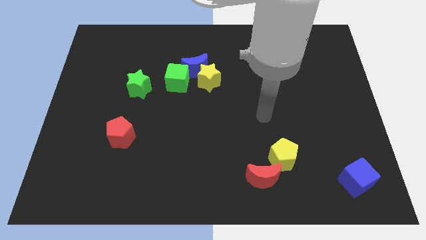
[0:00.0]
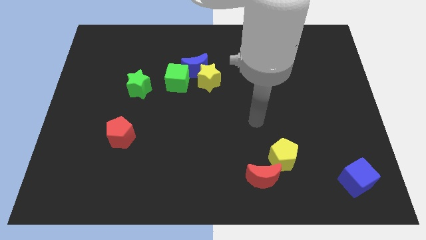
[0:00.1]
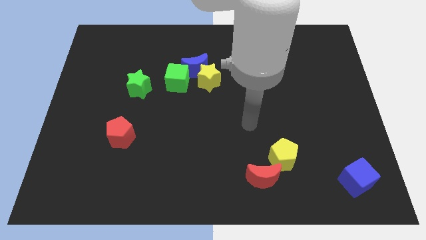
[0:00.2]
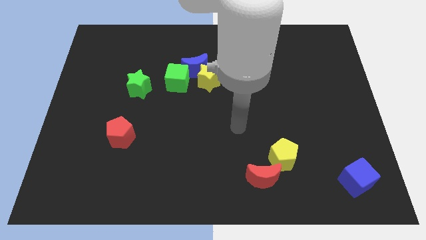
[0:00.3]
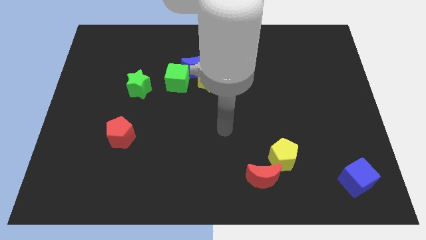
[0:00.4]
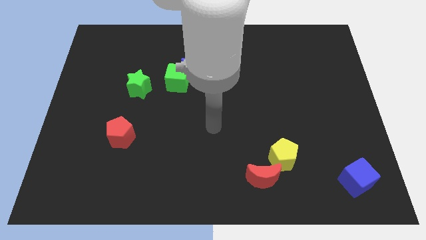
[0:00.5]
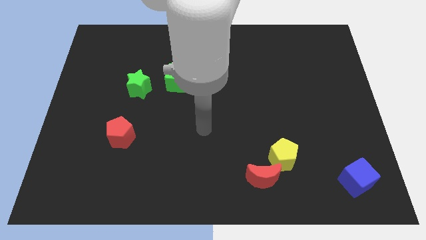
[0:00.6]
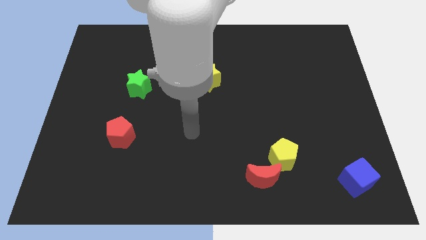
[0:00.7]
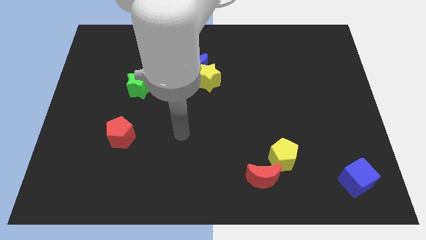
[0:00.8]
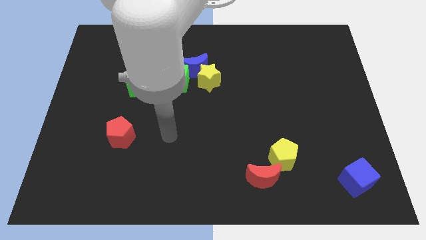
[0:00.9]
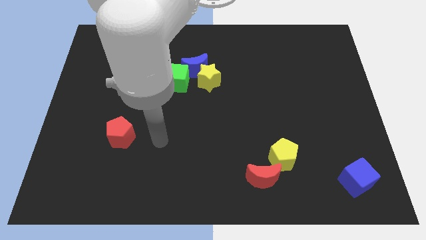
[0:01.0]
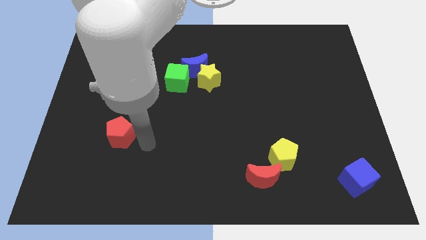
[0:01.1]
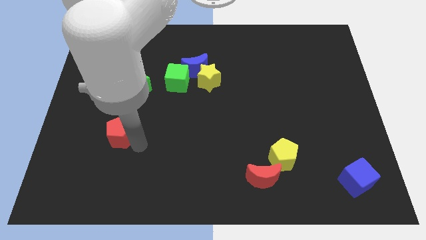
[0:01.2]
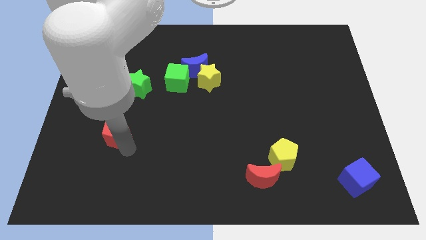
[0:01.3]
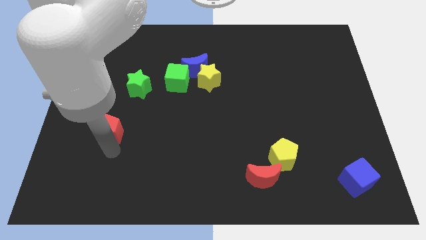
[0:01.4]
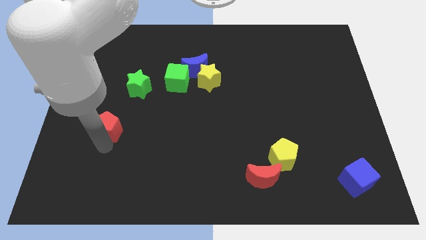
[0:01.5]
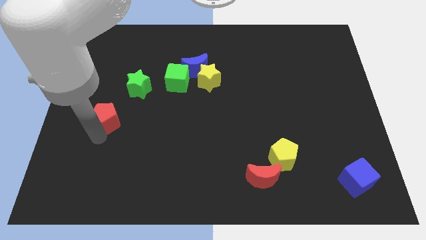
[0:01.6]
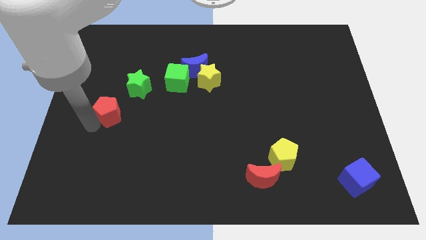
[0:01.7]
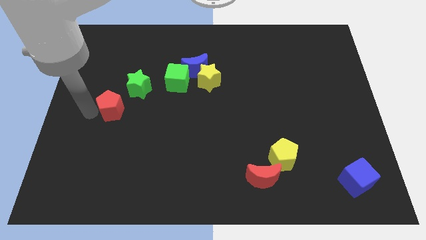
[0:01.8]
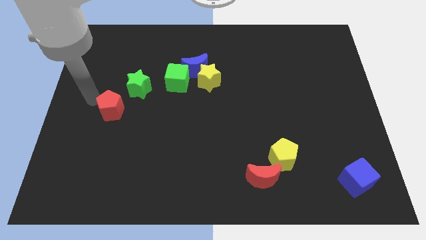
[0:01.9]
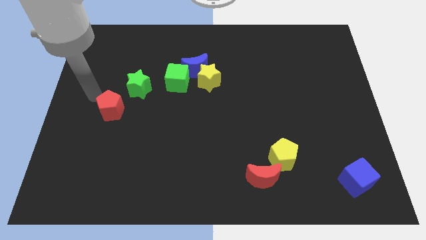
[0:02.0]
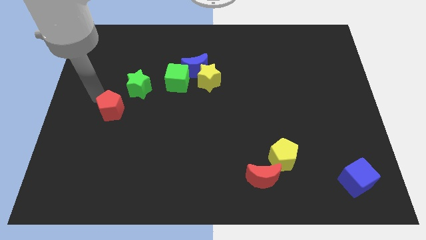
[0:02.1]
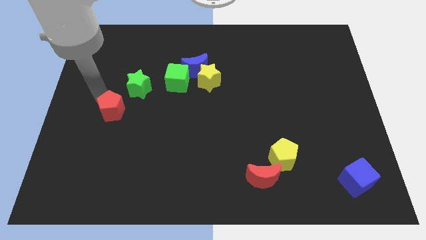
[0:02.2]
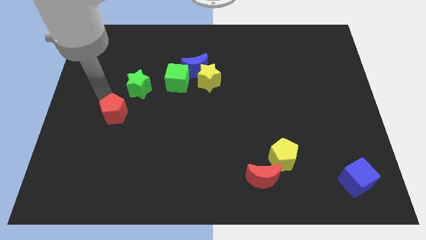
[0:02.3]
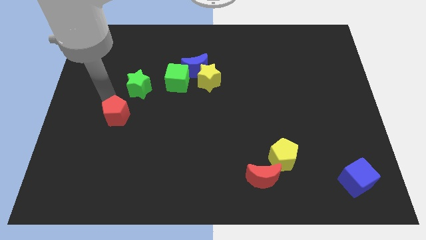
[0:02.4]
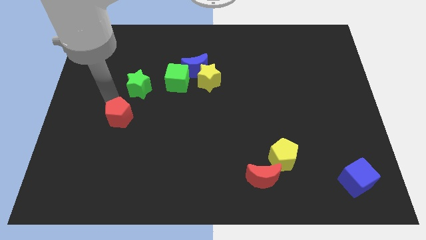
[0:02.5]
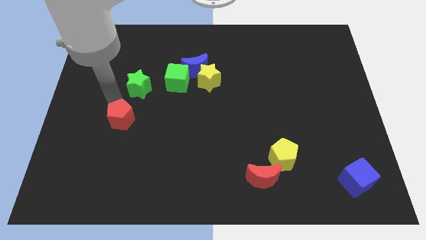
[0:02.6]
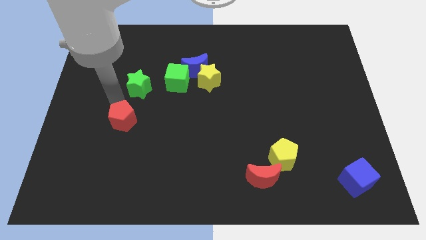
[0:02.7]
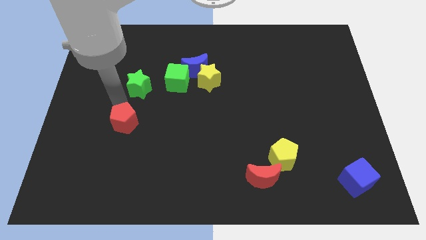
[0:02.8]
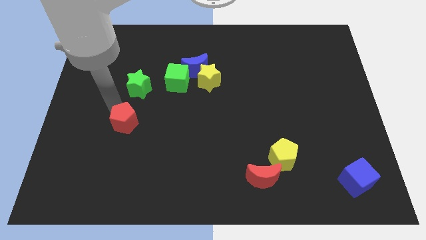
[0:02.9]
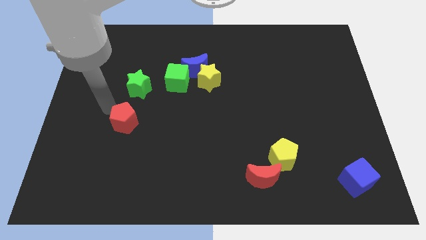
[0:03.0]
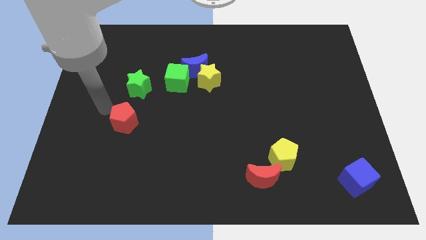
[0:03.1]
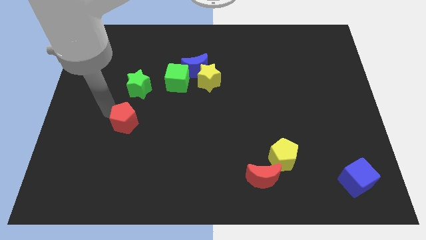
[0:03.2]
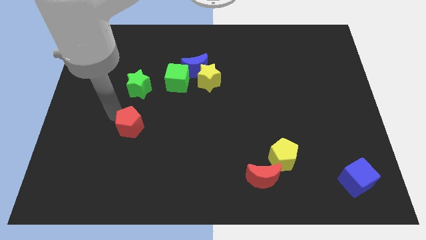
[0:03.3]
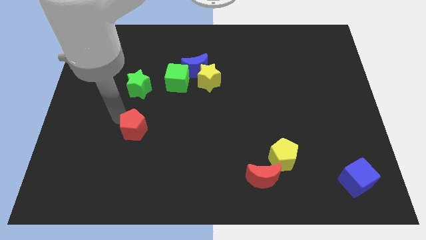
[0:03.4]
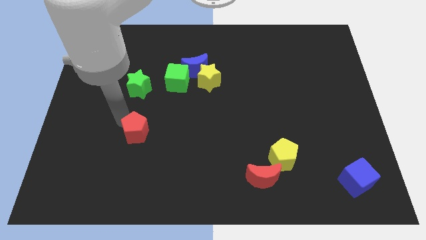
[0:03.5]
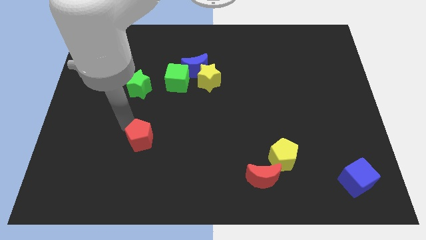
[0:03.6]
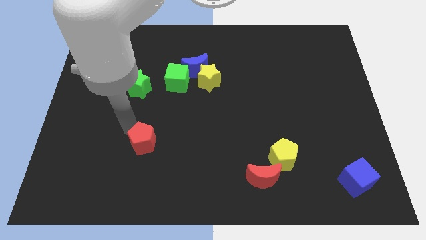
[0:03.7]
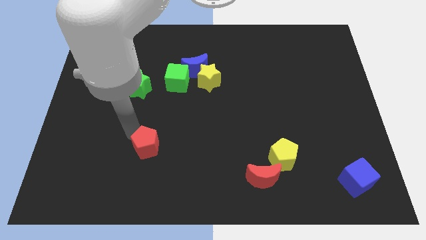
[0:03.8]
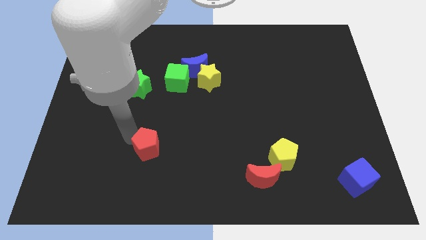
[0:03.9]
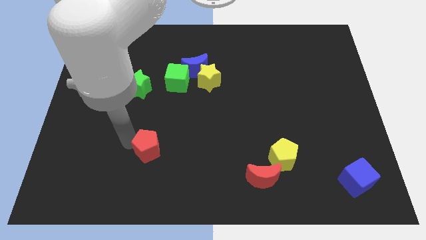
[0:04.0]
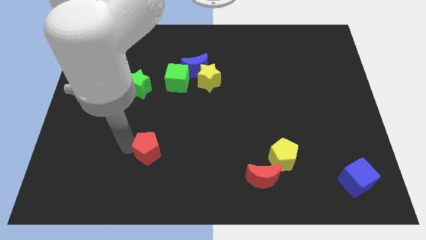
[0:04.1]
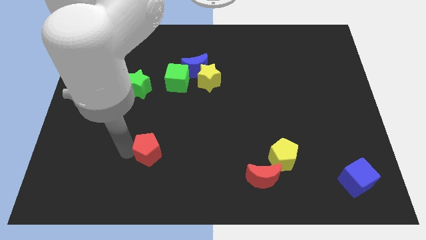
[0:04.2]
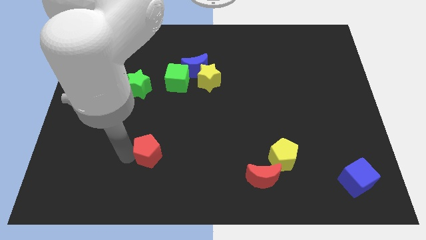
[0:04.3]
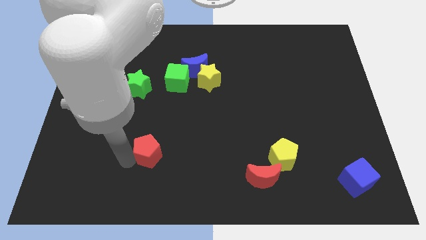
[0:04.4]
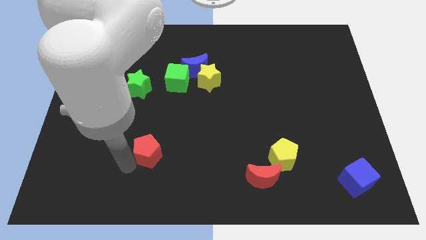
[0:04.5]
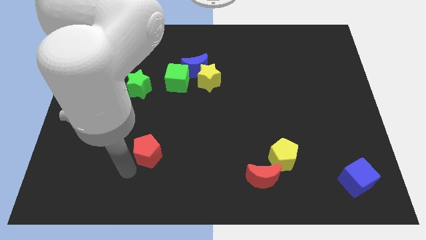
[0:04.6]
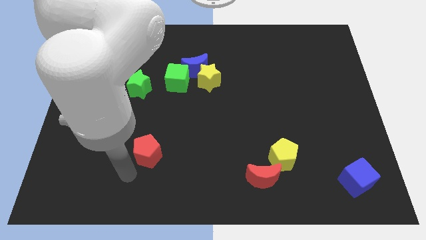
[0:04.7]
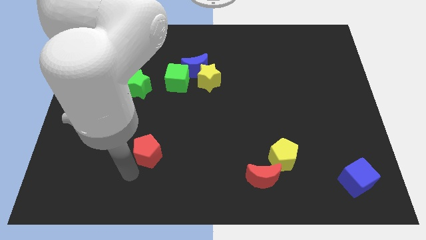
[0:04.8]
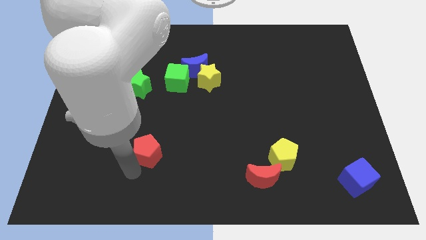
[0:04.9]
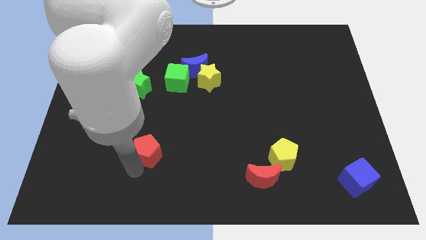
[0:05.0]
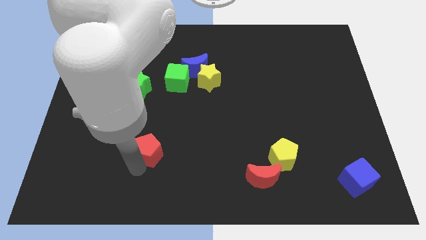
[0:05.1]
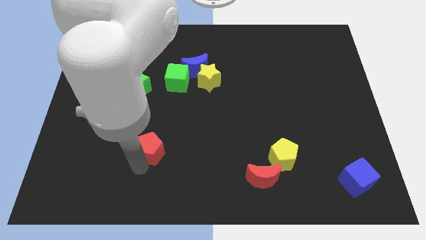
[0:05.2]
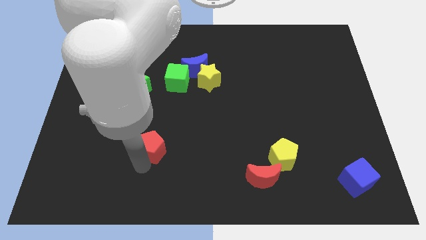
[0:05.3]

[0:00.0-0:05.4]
slightly move the red pentagon to the right

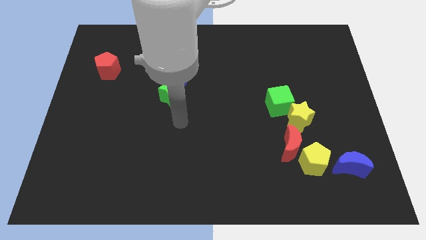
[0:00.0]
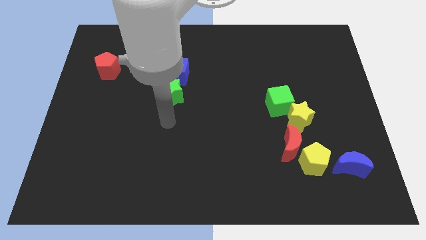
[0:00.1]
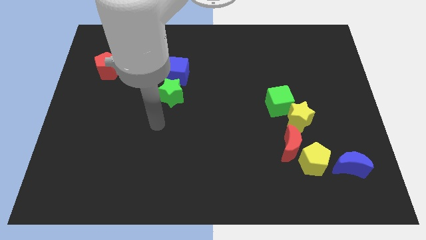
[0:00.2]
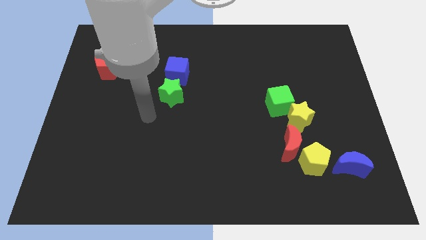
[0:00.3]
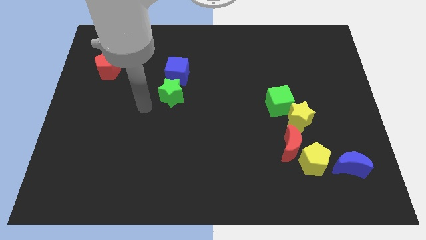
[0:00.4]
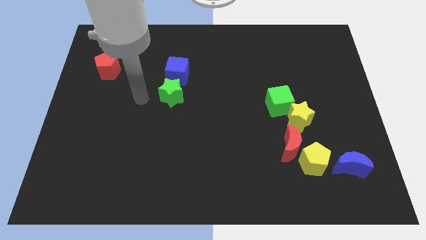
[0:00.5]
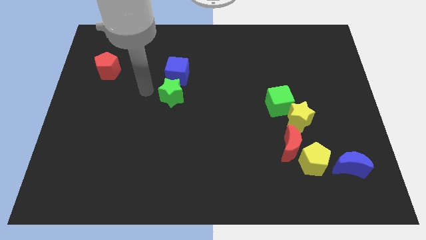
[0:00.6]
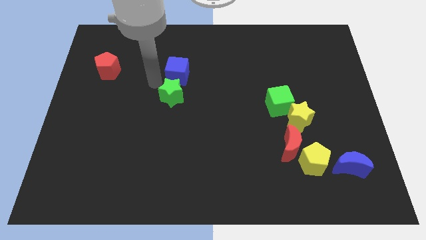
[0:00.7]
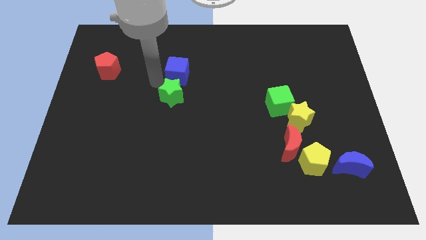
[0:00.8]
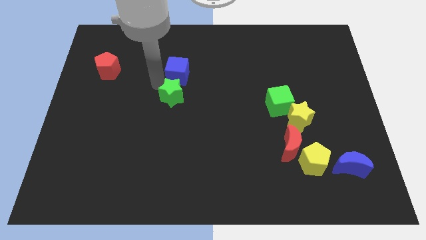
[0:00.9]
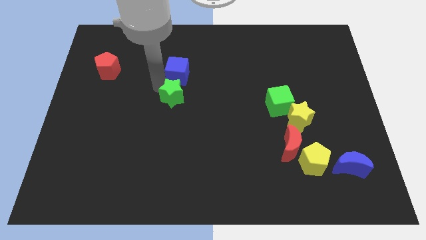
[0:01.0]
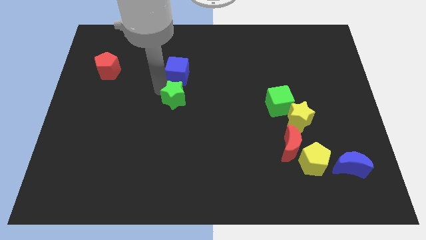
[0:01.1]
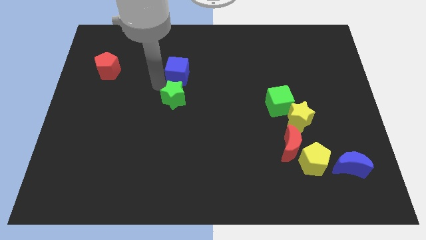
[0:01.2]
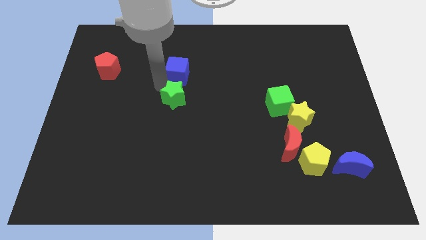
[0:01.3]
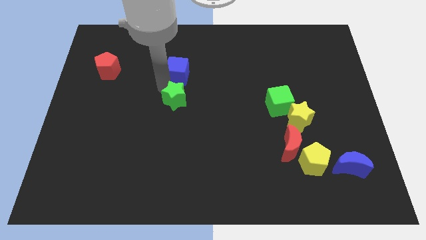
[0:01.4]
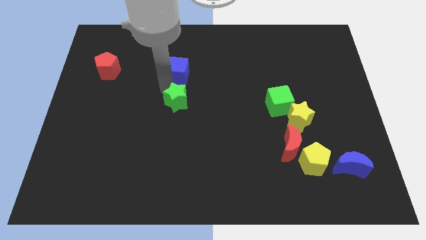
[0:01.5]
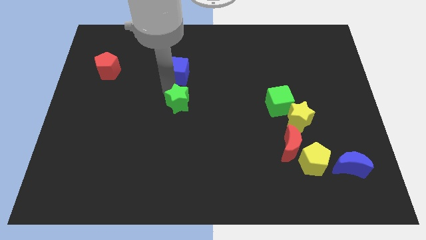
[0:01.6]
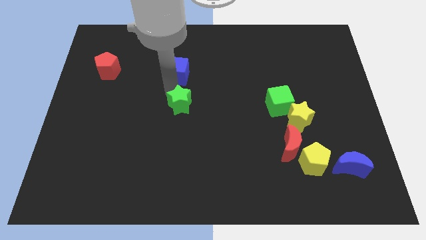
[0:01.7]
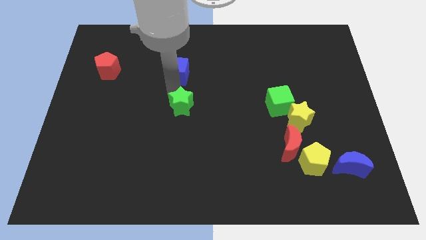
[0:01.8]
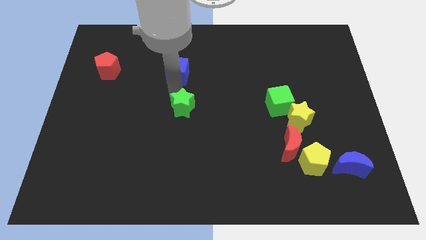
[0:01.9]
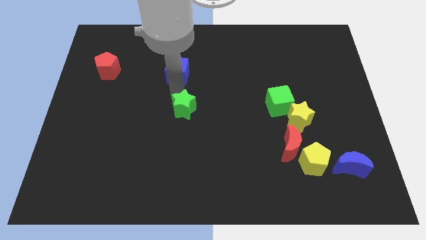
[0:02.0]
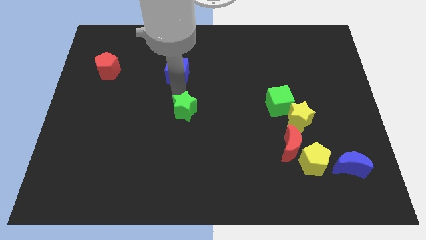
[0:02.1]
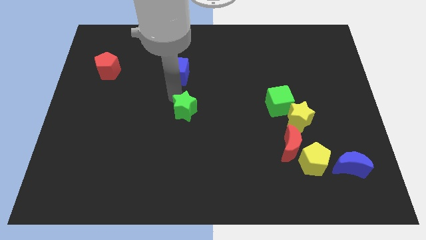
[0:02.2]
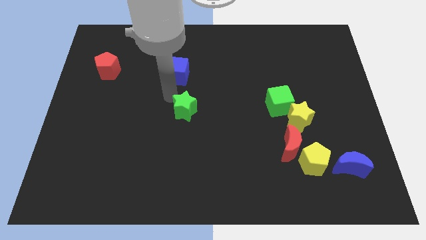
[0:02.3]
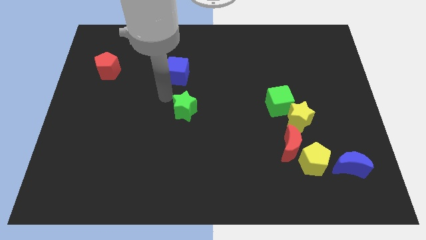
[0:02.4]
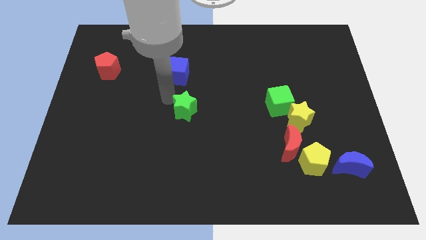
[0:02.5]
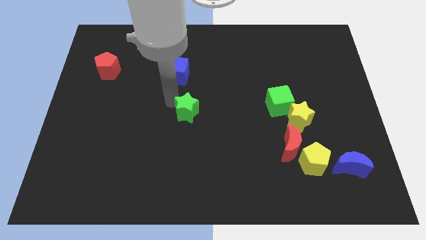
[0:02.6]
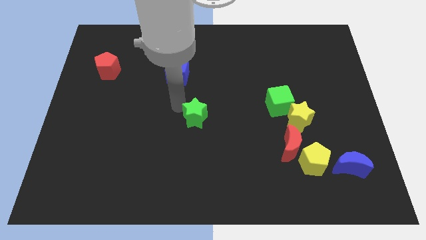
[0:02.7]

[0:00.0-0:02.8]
slightly move the green star downwards and then to the right
